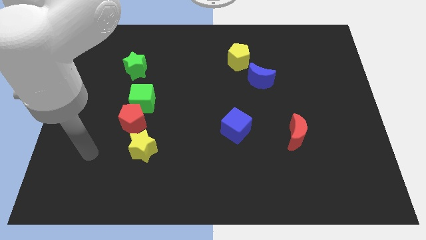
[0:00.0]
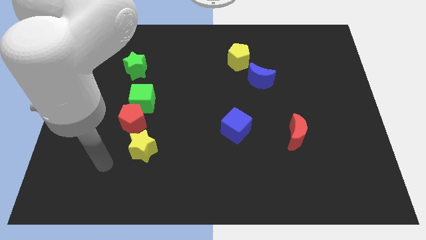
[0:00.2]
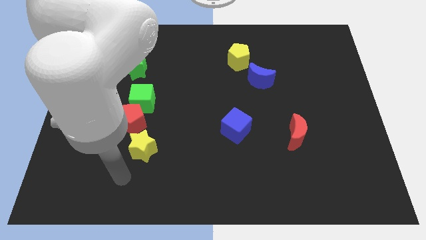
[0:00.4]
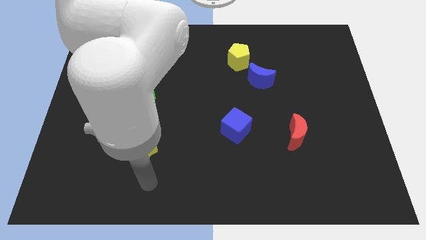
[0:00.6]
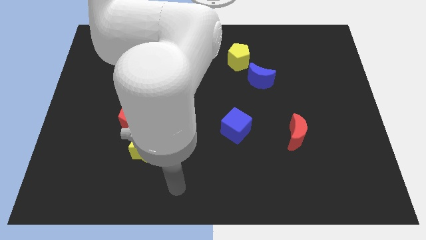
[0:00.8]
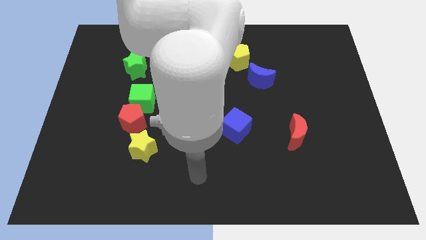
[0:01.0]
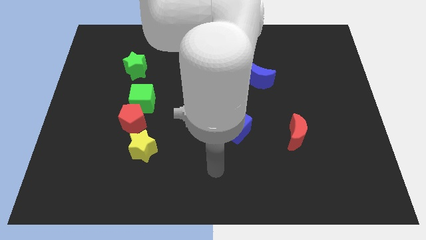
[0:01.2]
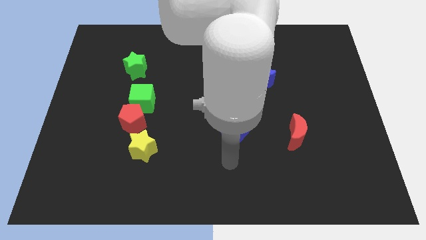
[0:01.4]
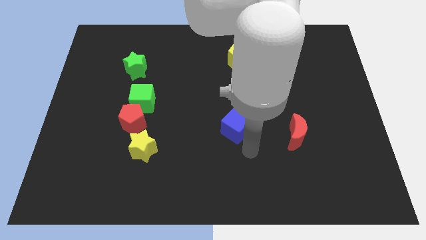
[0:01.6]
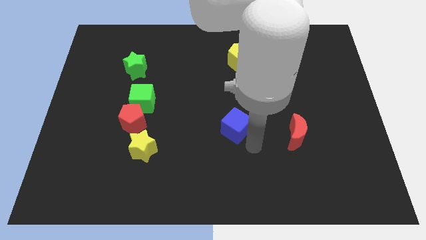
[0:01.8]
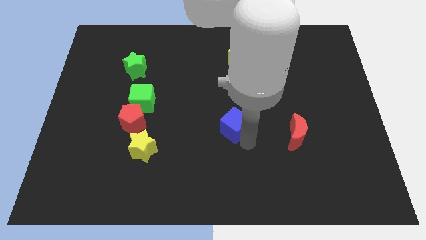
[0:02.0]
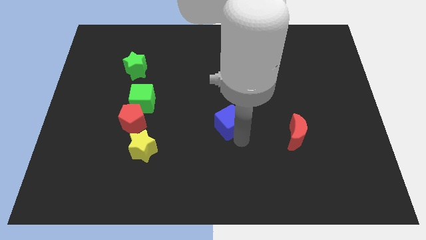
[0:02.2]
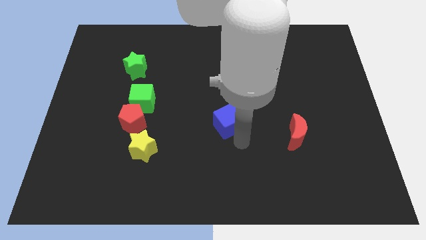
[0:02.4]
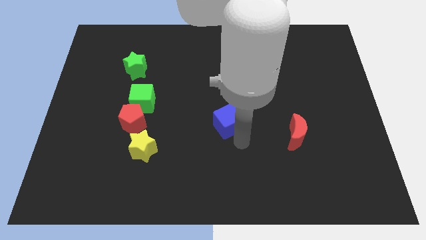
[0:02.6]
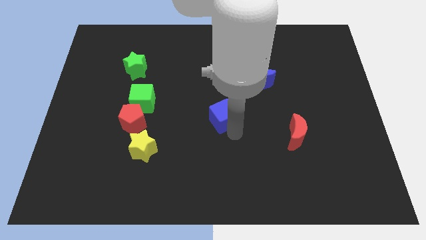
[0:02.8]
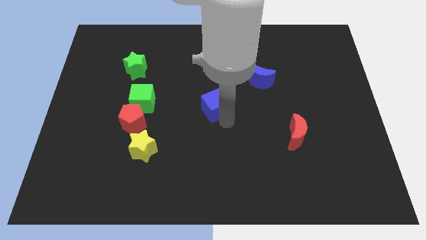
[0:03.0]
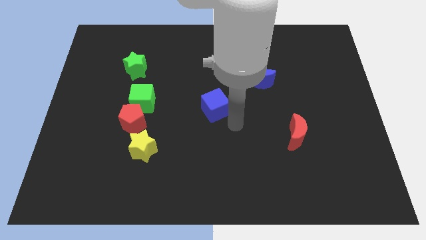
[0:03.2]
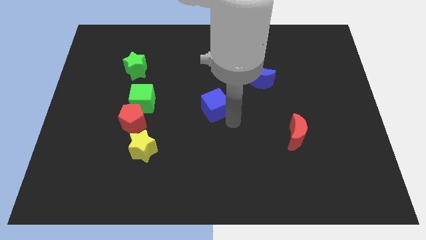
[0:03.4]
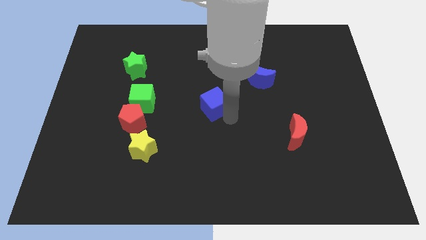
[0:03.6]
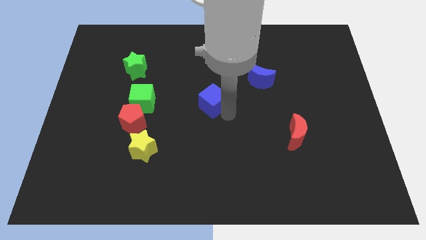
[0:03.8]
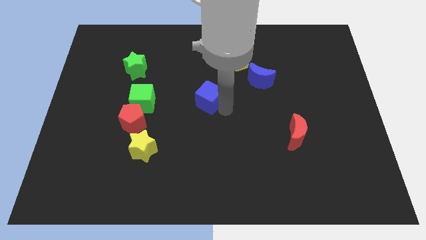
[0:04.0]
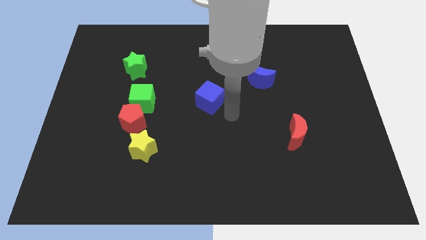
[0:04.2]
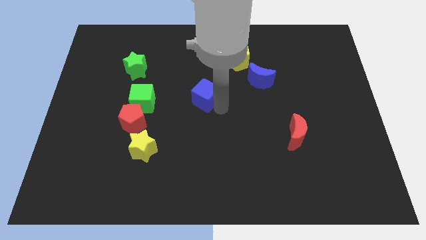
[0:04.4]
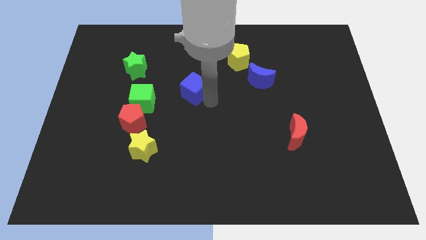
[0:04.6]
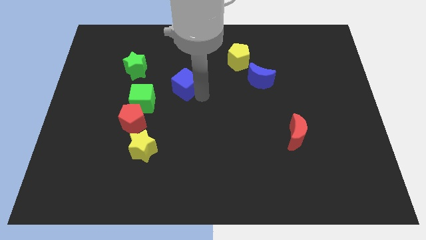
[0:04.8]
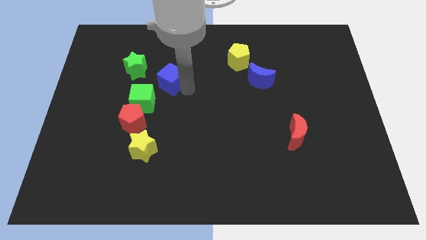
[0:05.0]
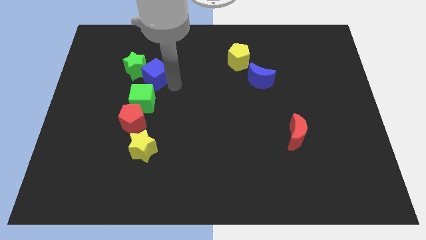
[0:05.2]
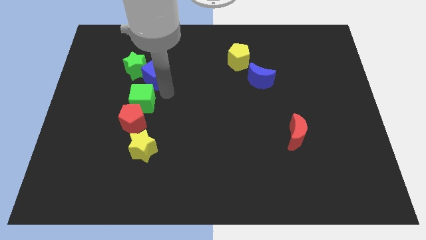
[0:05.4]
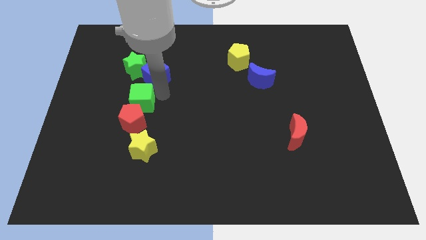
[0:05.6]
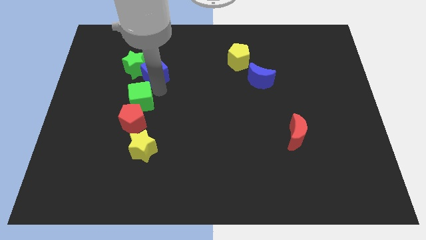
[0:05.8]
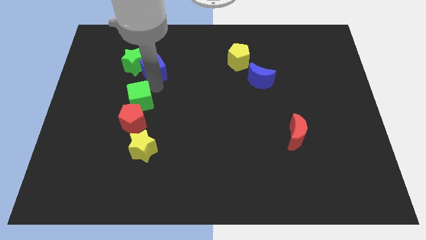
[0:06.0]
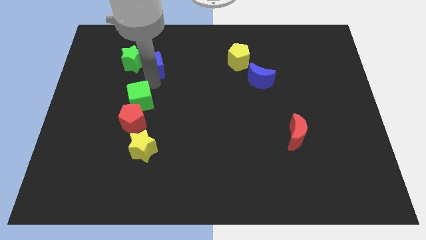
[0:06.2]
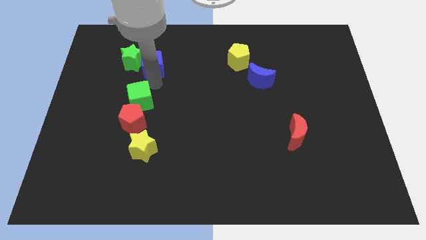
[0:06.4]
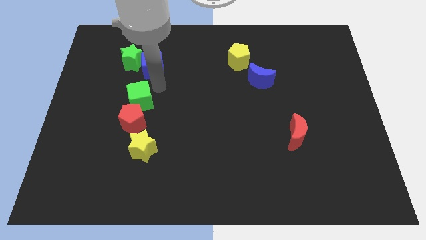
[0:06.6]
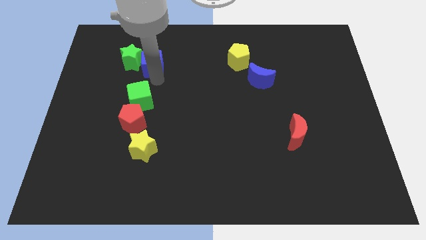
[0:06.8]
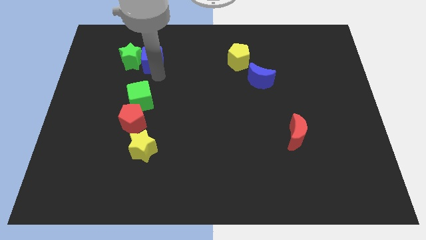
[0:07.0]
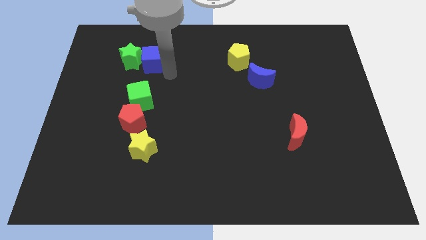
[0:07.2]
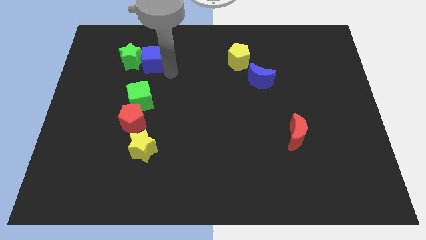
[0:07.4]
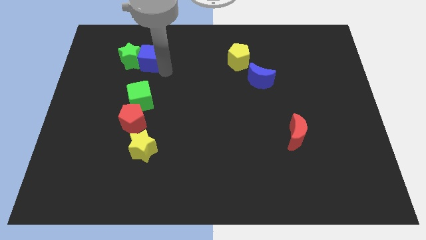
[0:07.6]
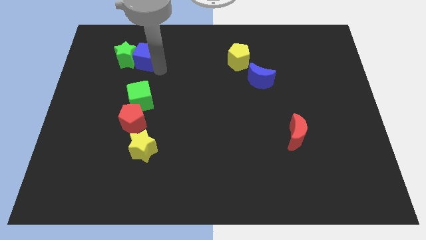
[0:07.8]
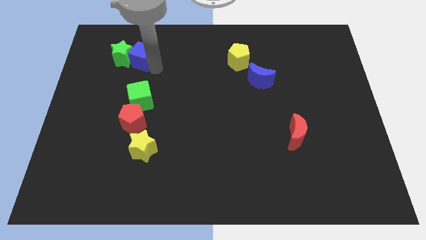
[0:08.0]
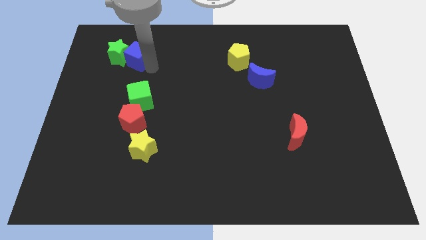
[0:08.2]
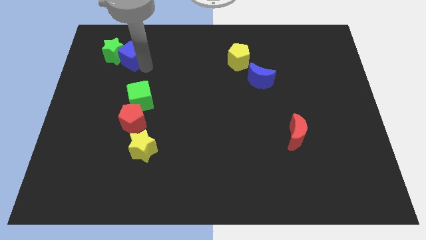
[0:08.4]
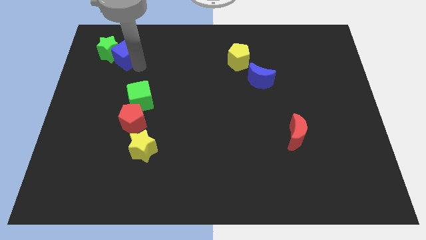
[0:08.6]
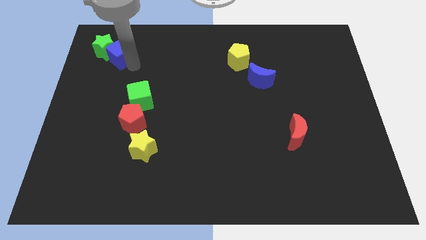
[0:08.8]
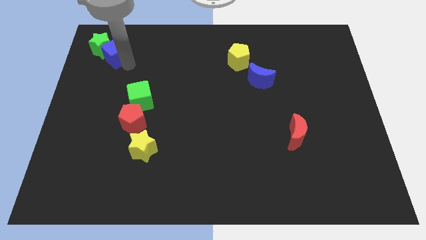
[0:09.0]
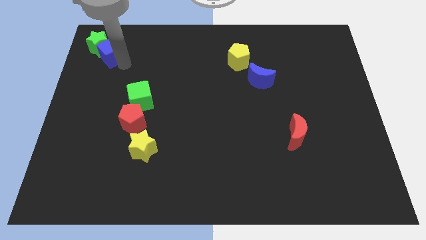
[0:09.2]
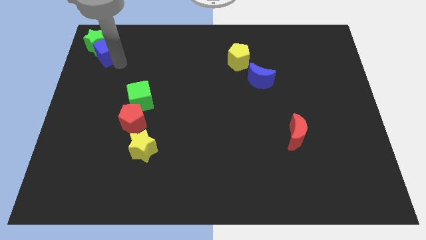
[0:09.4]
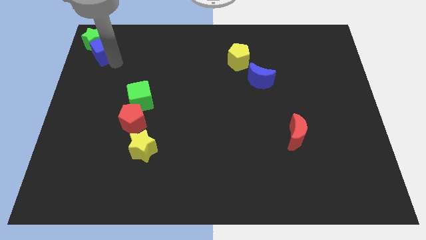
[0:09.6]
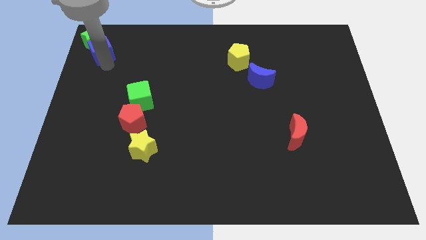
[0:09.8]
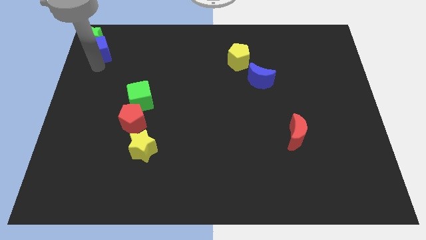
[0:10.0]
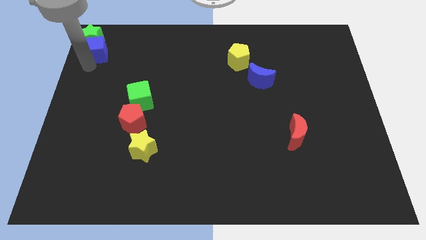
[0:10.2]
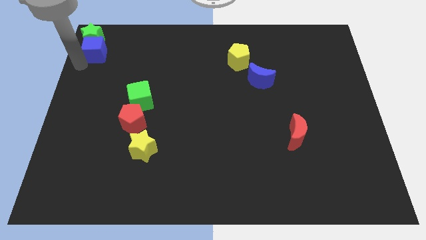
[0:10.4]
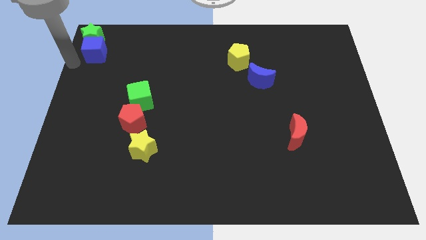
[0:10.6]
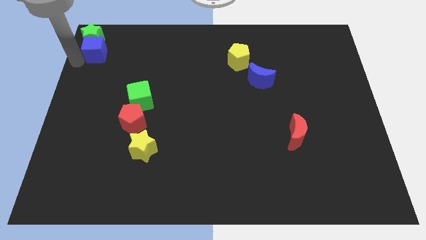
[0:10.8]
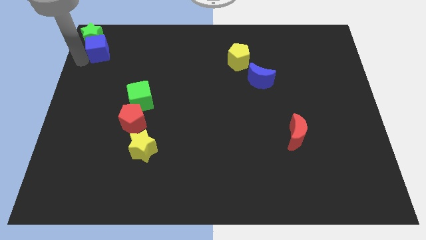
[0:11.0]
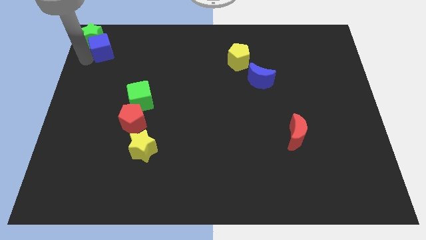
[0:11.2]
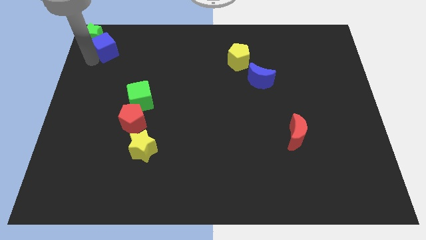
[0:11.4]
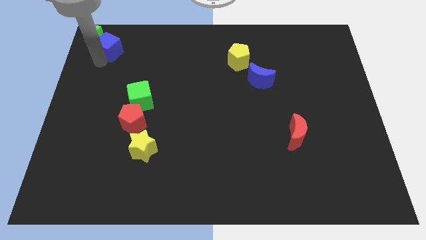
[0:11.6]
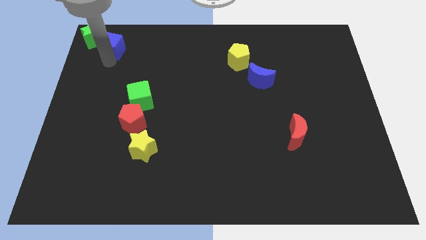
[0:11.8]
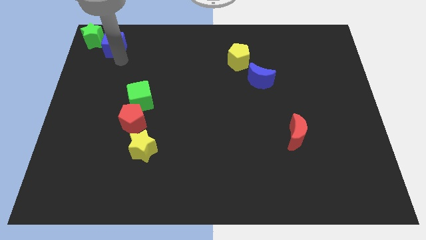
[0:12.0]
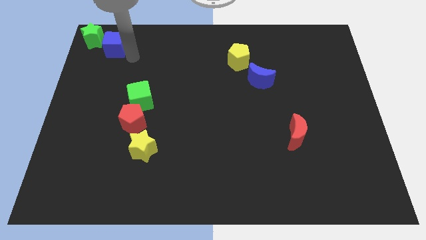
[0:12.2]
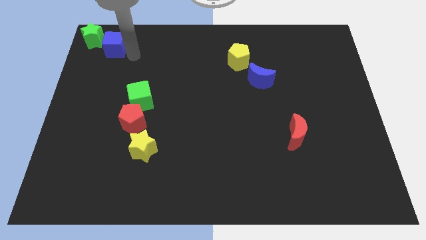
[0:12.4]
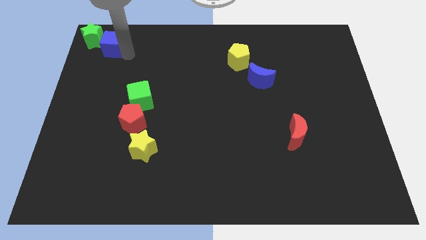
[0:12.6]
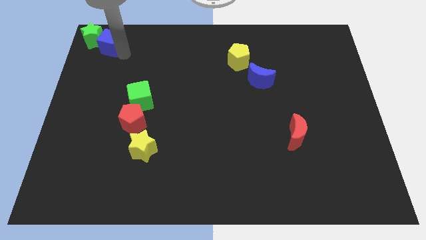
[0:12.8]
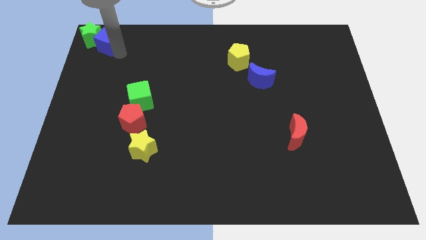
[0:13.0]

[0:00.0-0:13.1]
move the blue cube to the upper left corner

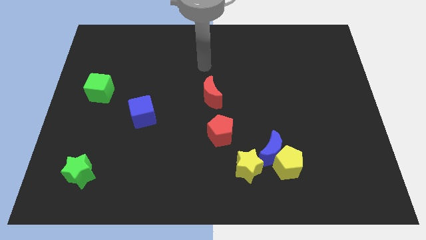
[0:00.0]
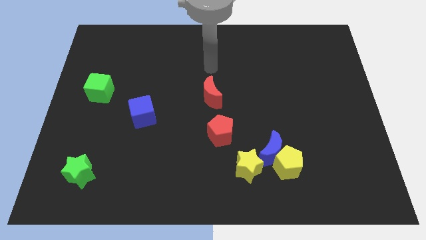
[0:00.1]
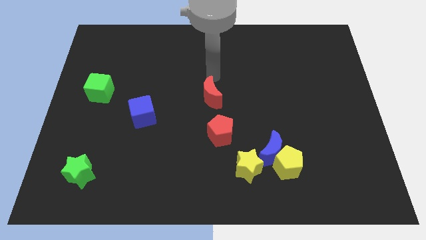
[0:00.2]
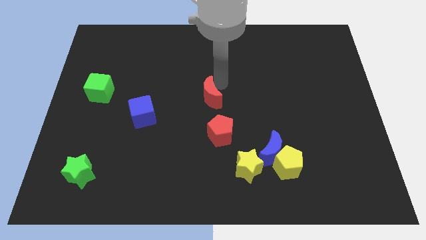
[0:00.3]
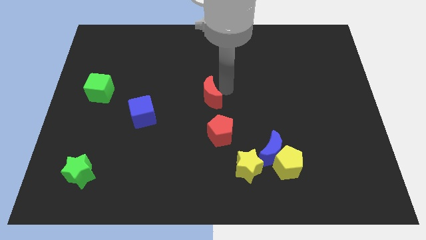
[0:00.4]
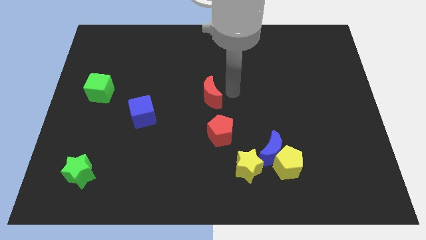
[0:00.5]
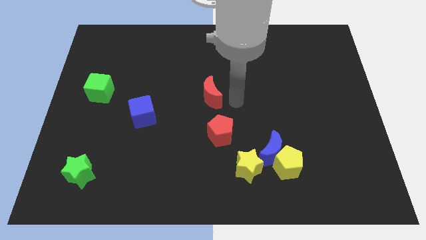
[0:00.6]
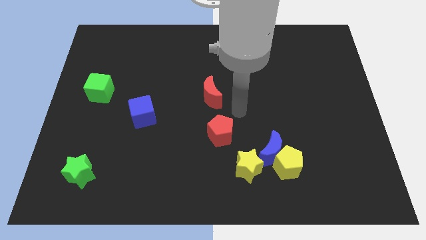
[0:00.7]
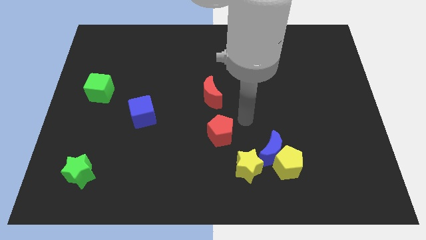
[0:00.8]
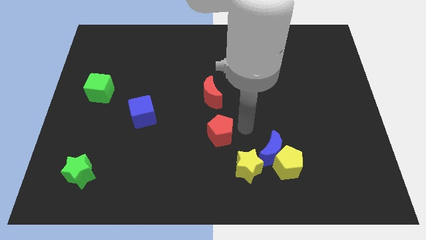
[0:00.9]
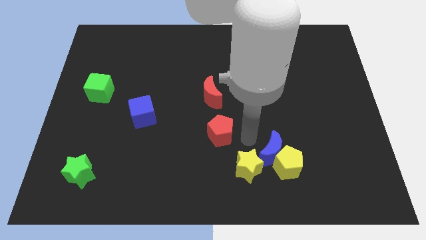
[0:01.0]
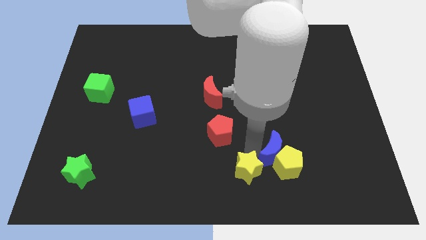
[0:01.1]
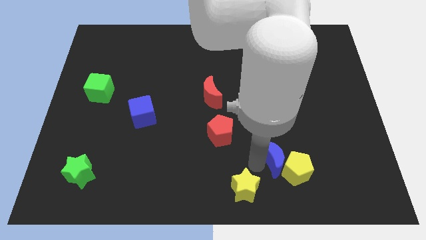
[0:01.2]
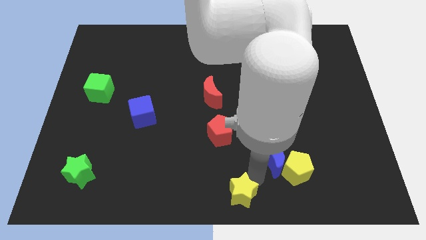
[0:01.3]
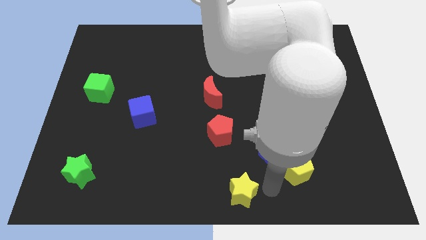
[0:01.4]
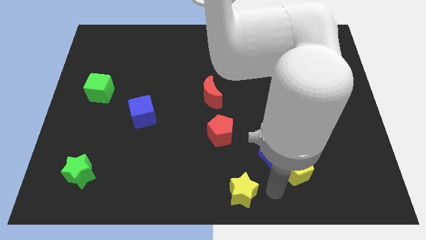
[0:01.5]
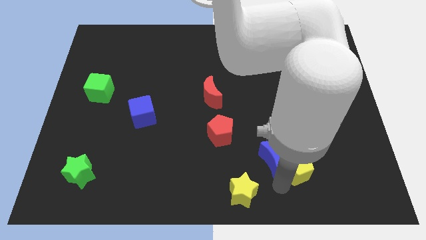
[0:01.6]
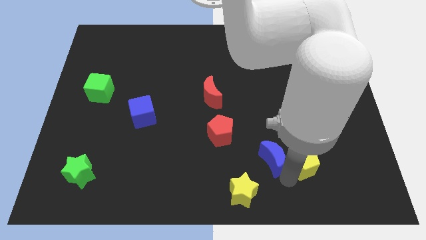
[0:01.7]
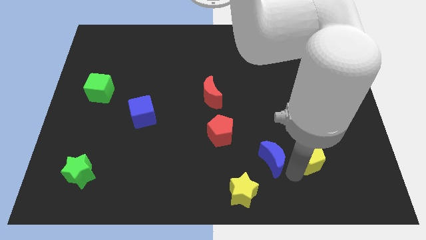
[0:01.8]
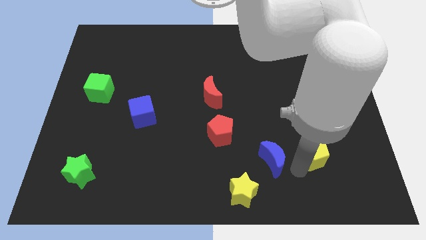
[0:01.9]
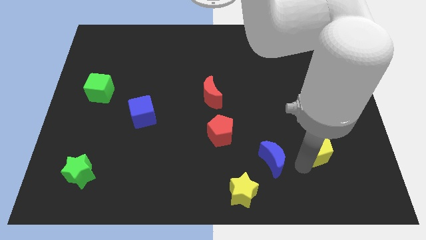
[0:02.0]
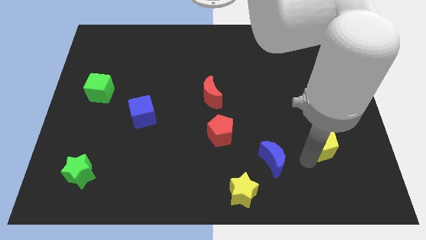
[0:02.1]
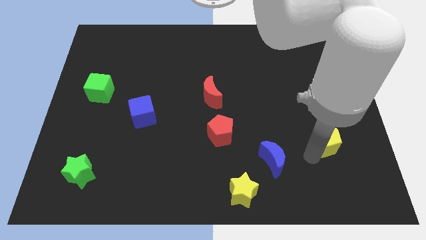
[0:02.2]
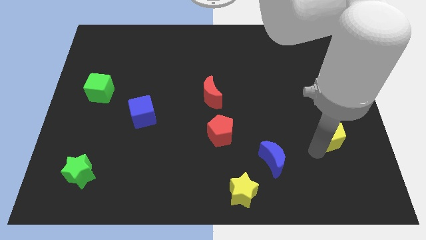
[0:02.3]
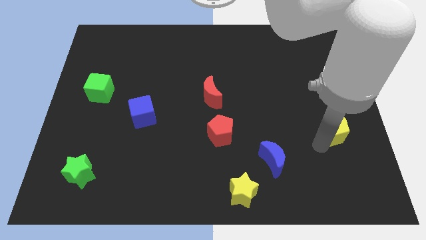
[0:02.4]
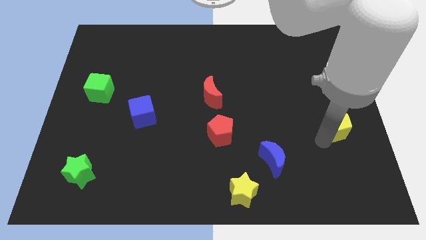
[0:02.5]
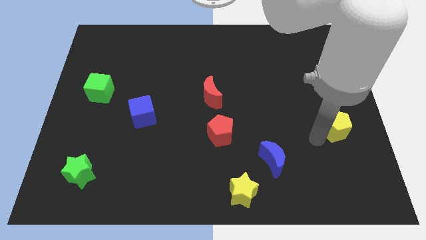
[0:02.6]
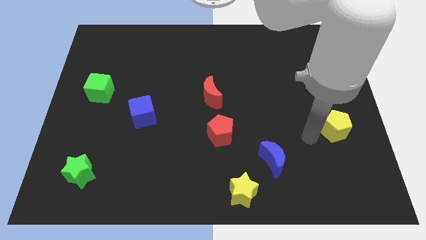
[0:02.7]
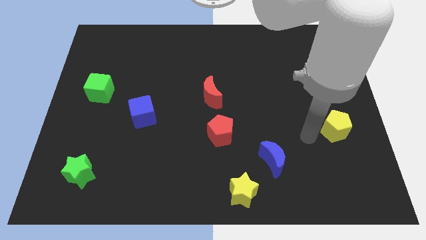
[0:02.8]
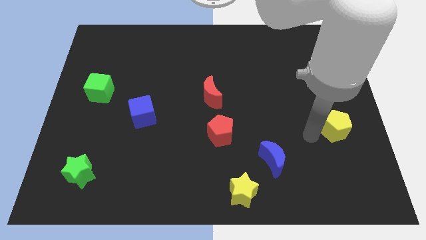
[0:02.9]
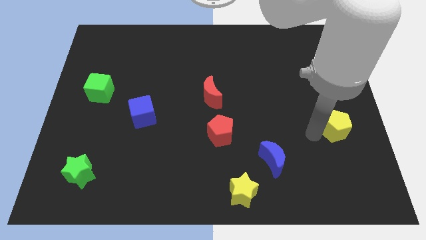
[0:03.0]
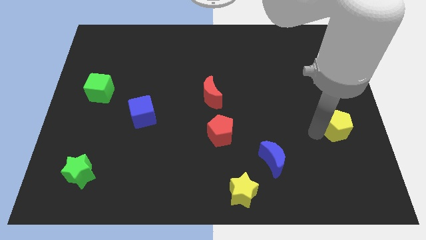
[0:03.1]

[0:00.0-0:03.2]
slide the yellow pentagon to the right side of the board
